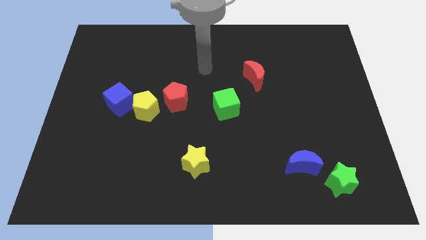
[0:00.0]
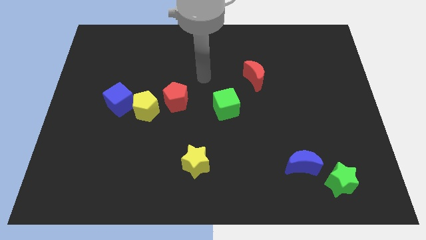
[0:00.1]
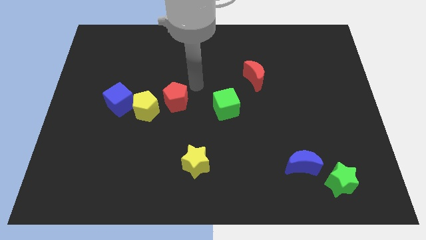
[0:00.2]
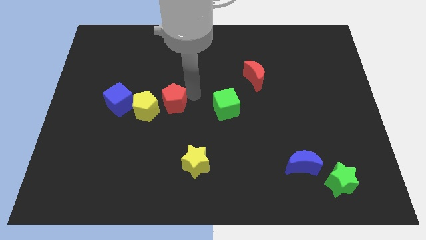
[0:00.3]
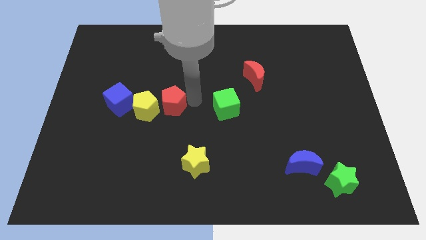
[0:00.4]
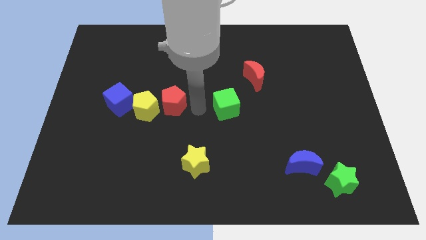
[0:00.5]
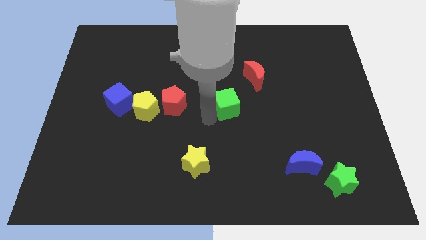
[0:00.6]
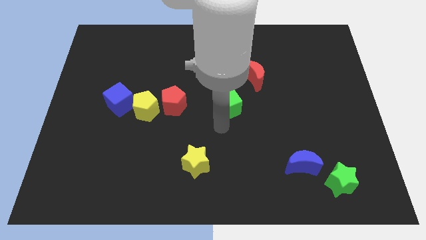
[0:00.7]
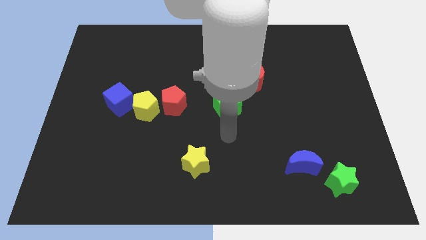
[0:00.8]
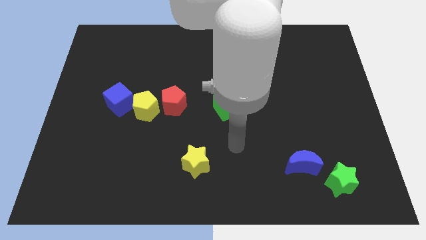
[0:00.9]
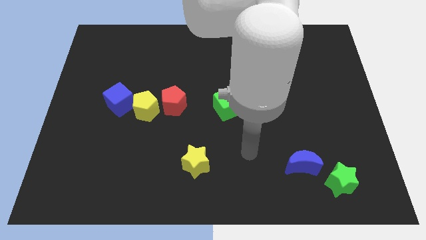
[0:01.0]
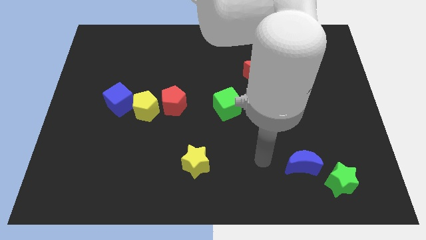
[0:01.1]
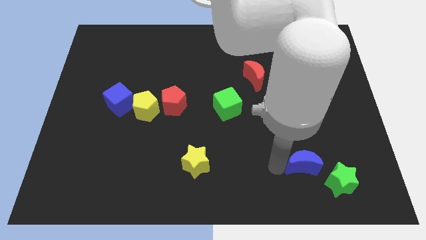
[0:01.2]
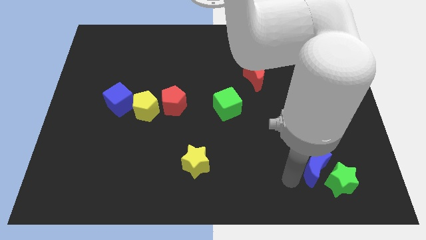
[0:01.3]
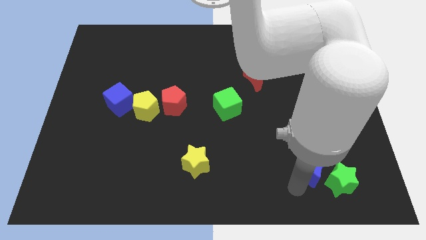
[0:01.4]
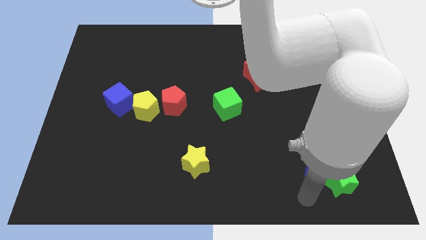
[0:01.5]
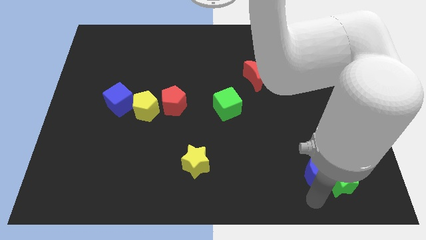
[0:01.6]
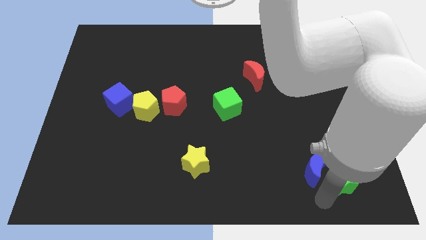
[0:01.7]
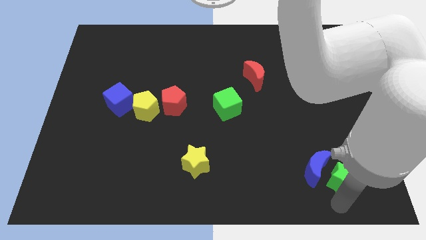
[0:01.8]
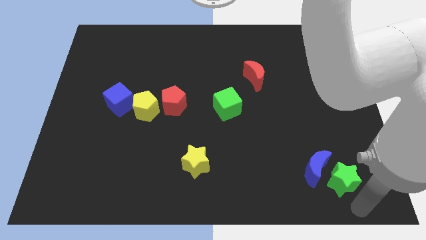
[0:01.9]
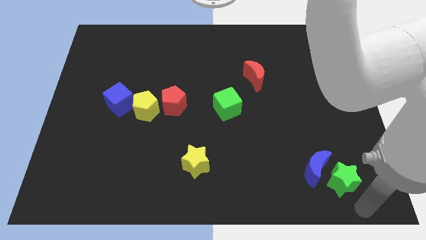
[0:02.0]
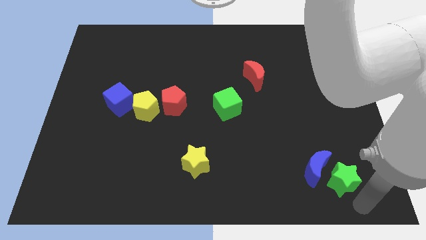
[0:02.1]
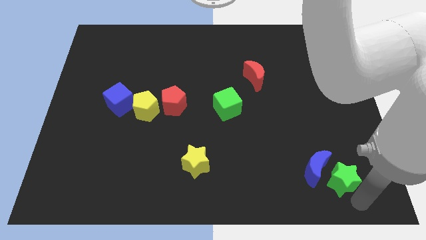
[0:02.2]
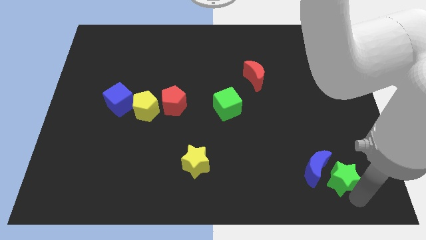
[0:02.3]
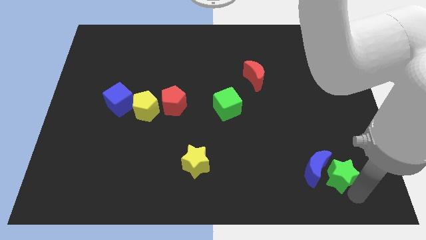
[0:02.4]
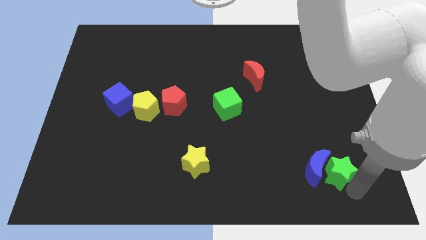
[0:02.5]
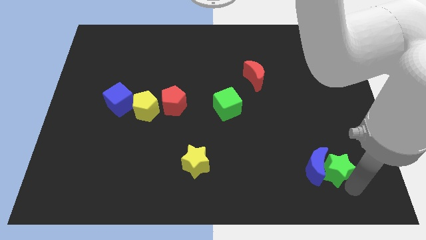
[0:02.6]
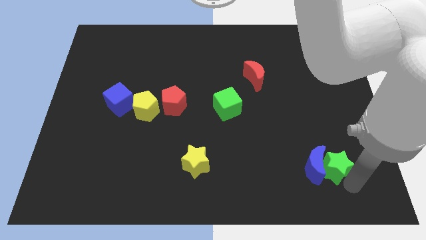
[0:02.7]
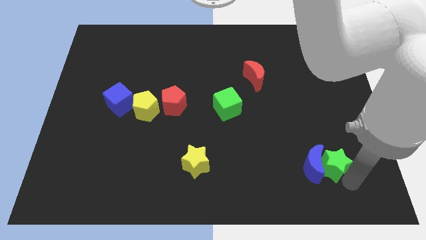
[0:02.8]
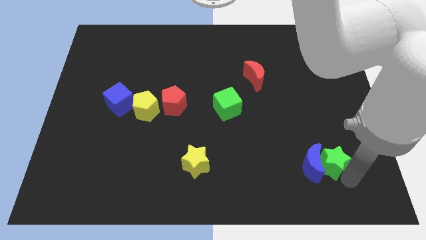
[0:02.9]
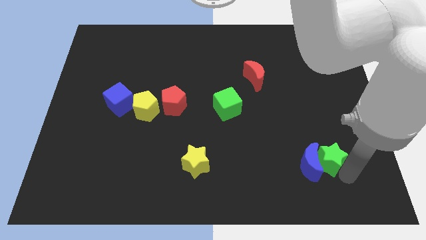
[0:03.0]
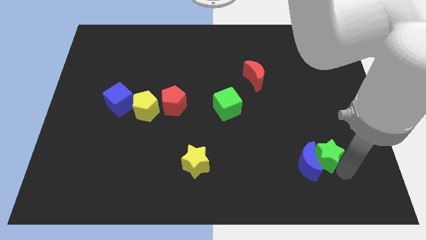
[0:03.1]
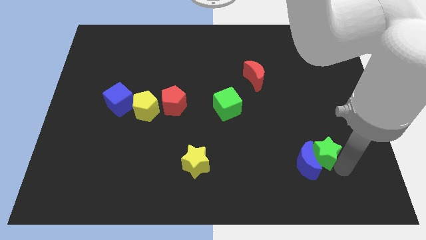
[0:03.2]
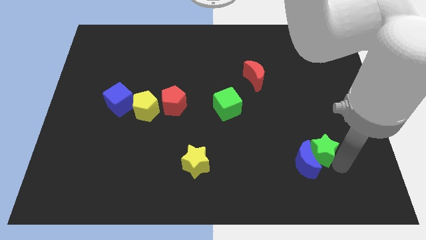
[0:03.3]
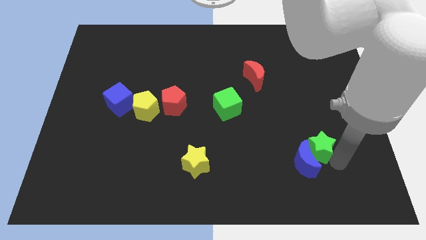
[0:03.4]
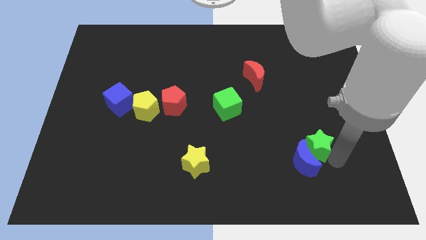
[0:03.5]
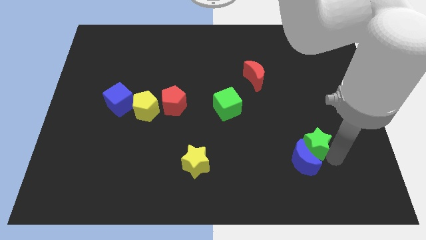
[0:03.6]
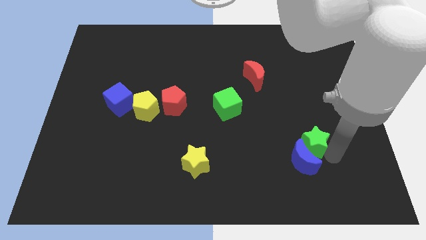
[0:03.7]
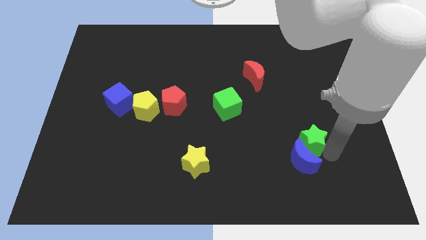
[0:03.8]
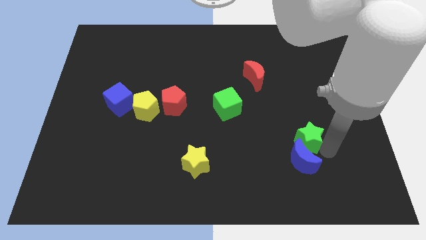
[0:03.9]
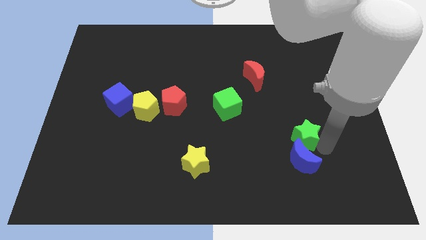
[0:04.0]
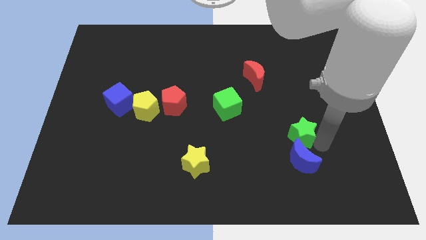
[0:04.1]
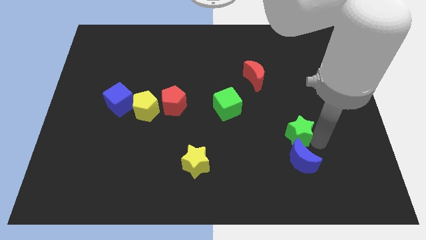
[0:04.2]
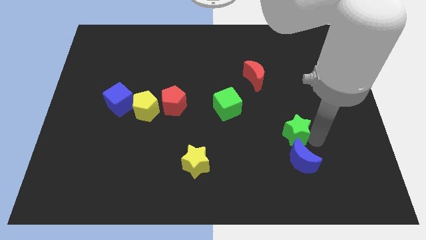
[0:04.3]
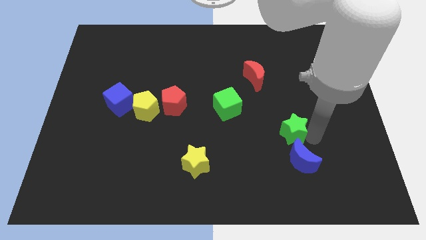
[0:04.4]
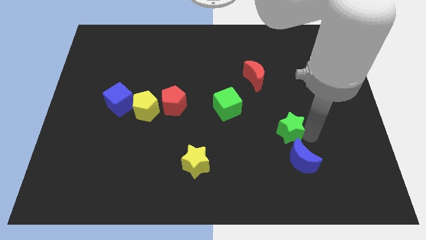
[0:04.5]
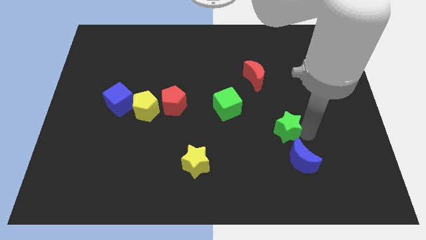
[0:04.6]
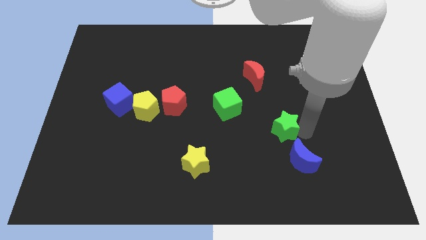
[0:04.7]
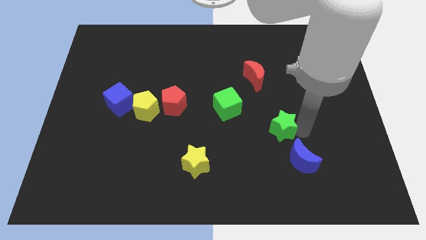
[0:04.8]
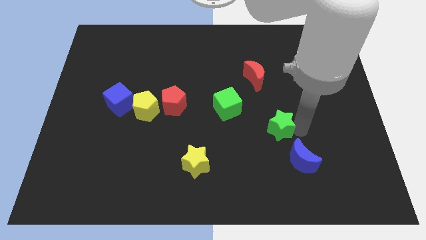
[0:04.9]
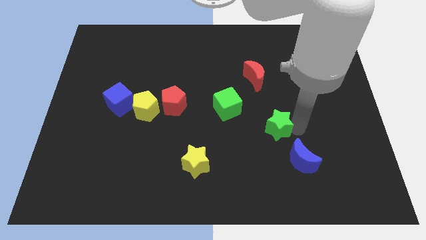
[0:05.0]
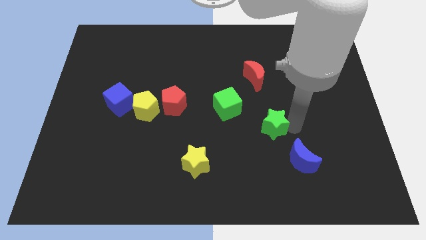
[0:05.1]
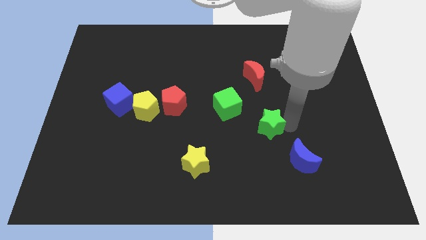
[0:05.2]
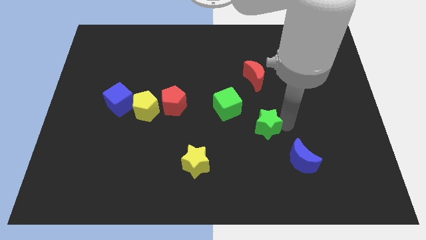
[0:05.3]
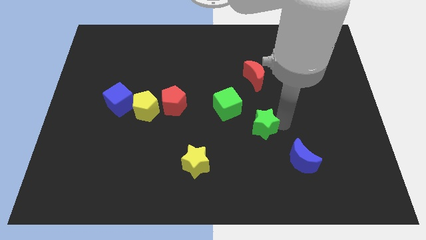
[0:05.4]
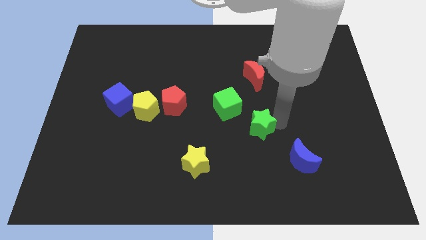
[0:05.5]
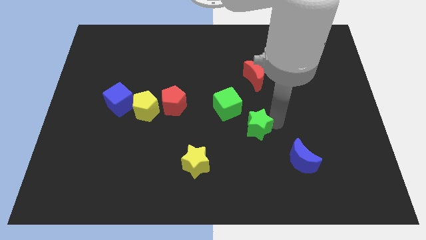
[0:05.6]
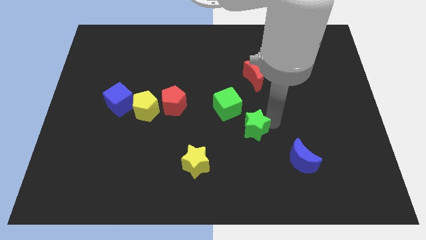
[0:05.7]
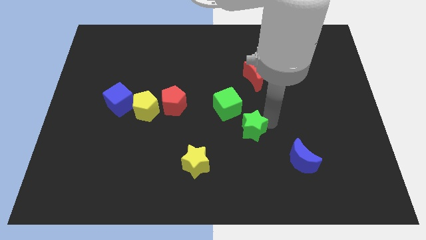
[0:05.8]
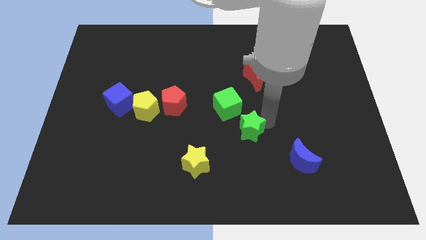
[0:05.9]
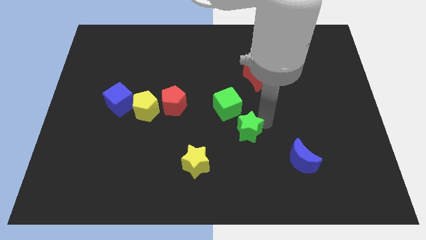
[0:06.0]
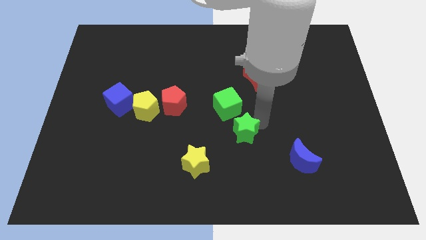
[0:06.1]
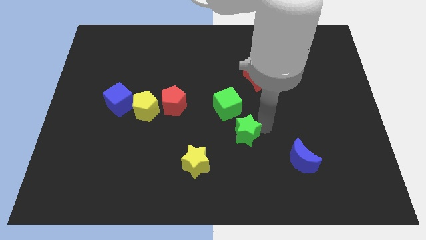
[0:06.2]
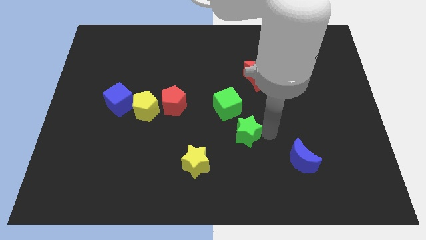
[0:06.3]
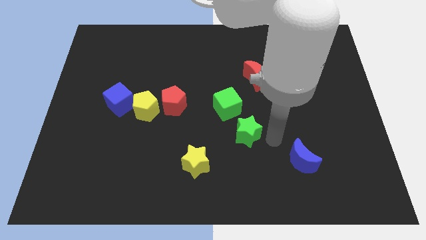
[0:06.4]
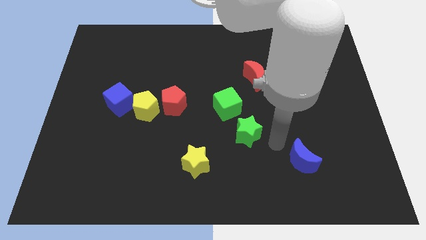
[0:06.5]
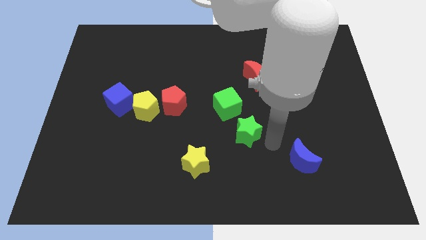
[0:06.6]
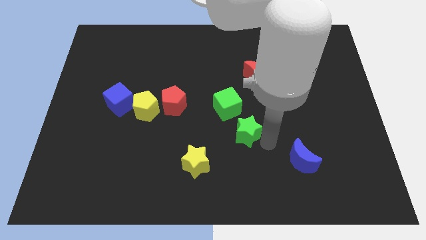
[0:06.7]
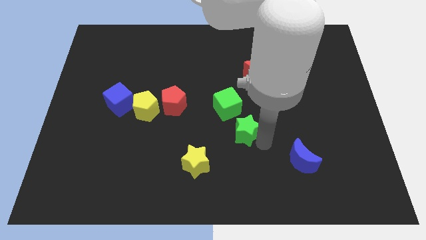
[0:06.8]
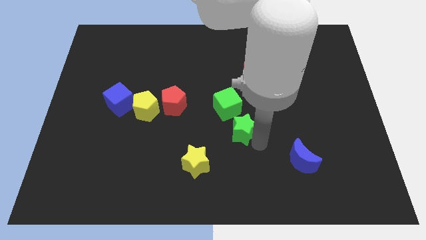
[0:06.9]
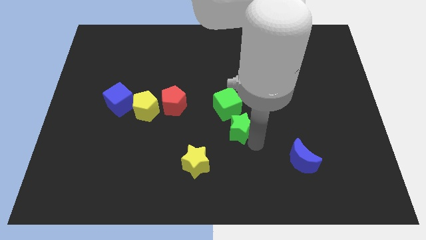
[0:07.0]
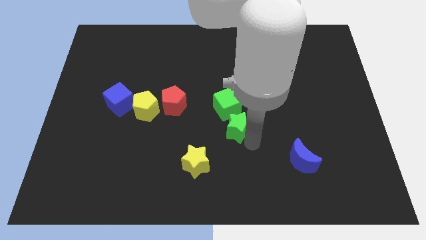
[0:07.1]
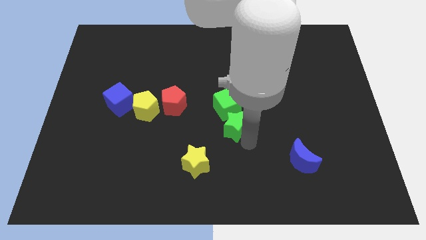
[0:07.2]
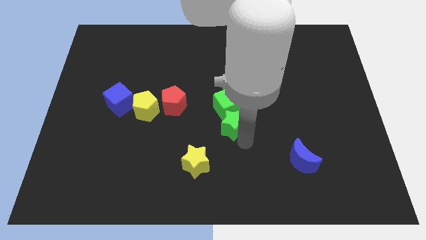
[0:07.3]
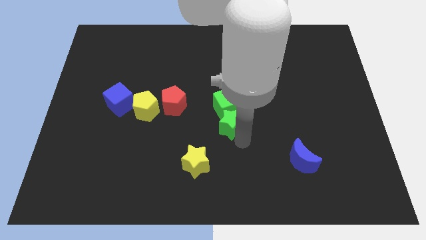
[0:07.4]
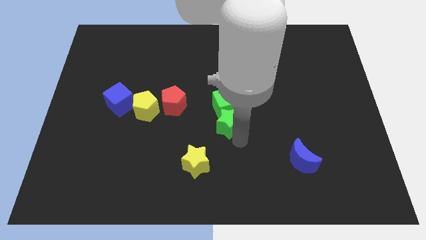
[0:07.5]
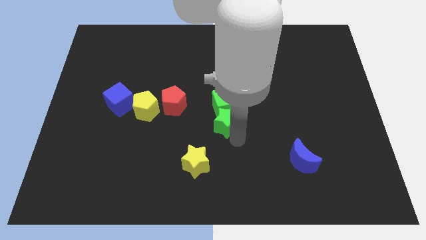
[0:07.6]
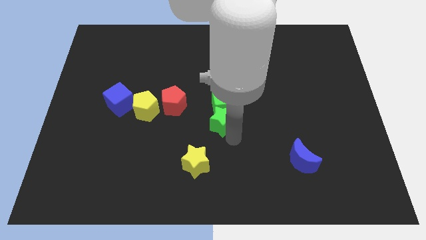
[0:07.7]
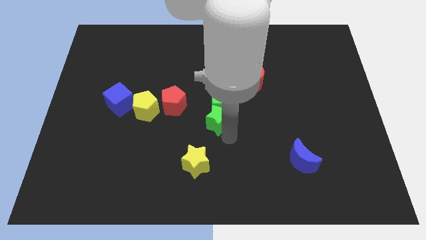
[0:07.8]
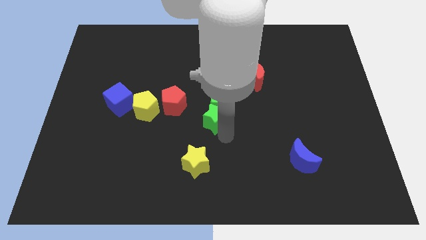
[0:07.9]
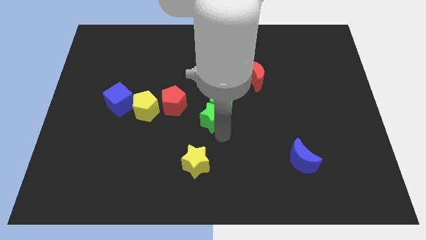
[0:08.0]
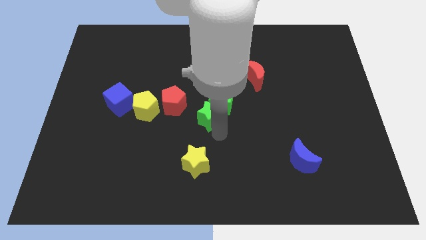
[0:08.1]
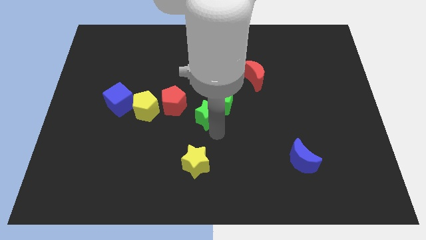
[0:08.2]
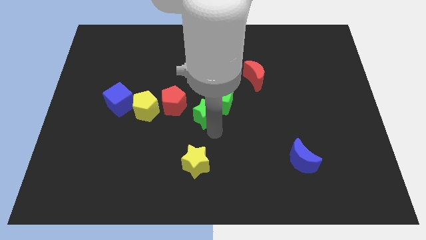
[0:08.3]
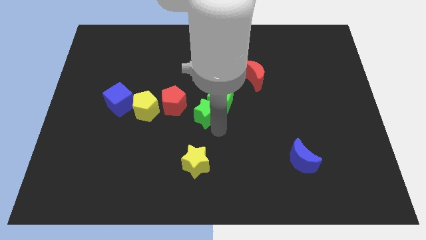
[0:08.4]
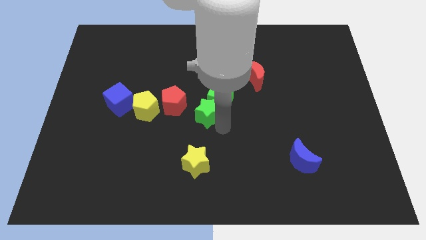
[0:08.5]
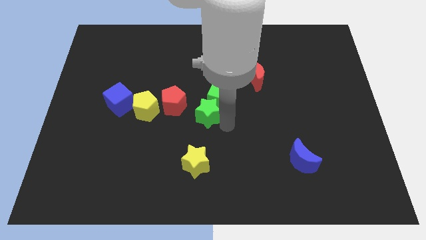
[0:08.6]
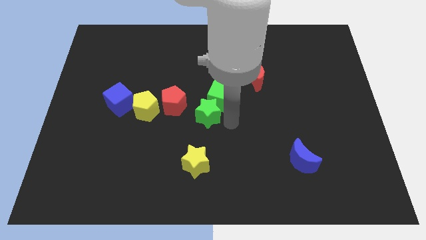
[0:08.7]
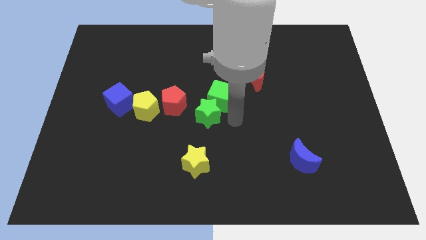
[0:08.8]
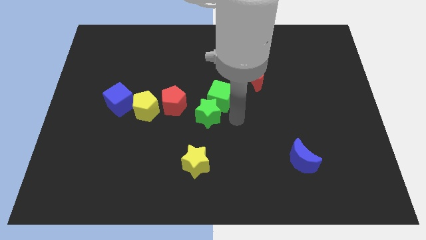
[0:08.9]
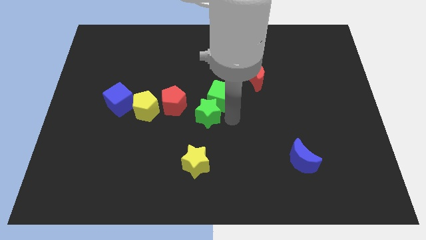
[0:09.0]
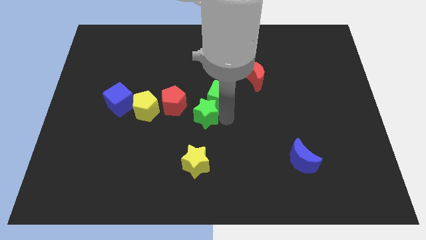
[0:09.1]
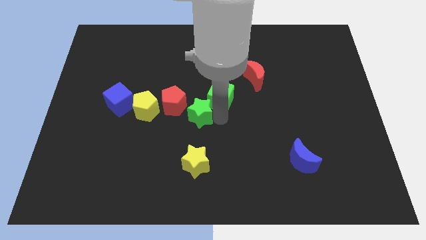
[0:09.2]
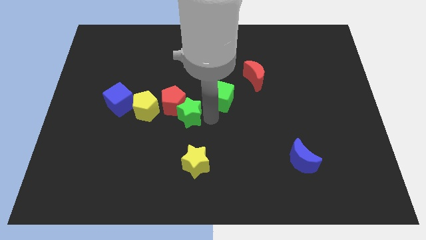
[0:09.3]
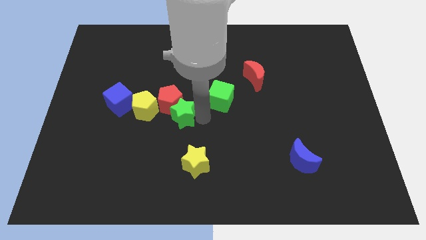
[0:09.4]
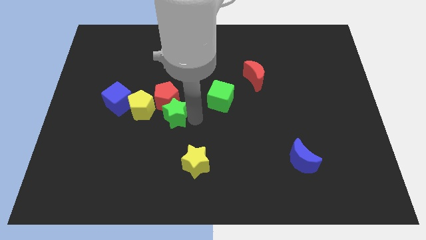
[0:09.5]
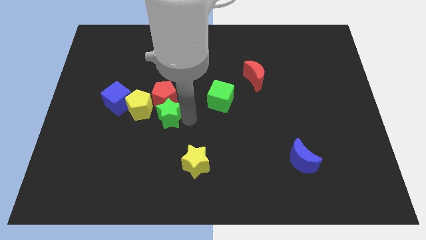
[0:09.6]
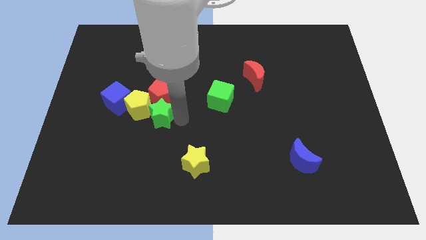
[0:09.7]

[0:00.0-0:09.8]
push the green star to the yellow pentagon
